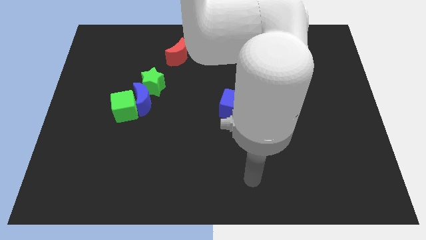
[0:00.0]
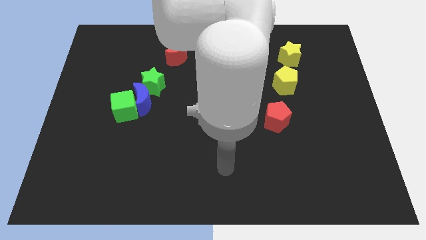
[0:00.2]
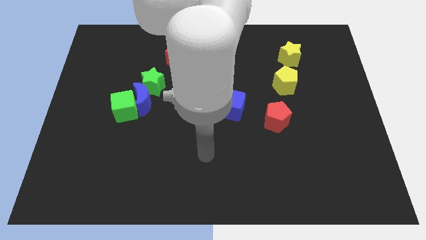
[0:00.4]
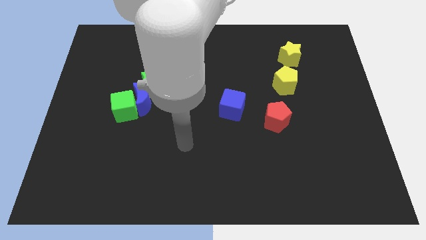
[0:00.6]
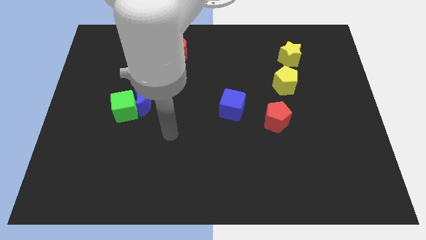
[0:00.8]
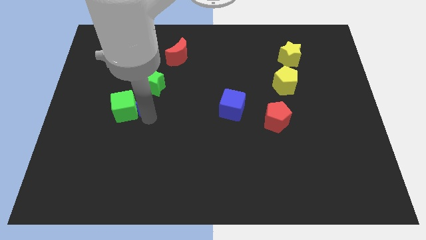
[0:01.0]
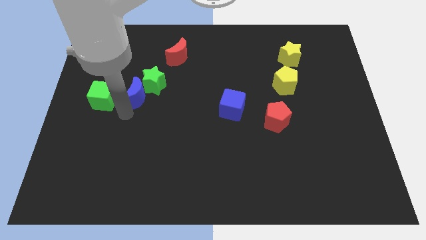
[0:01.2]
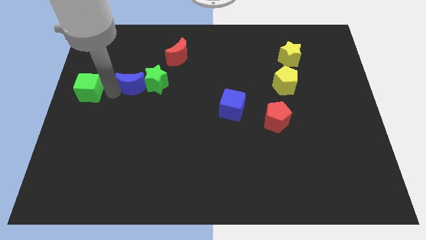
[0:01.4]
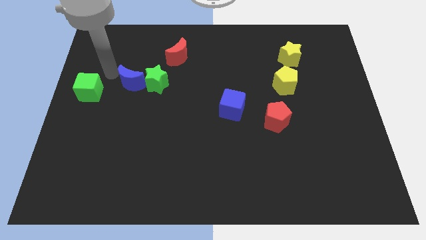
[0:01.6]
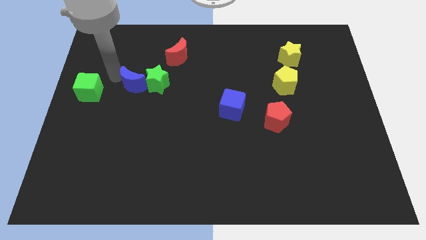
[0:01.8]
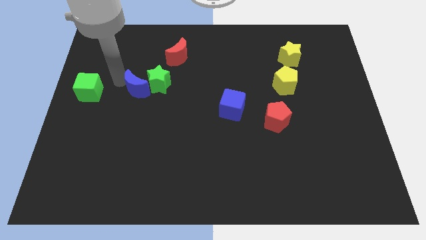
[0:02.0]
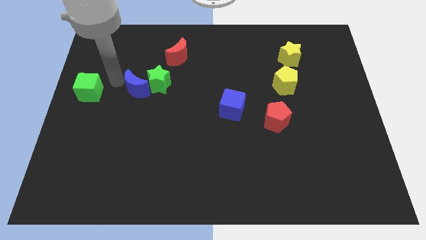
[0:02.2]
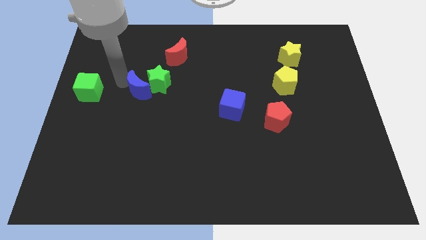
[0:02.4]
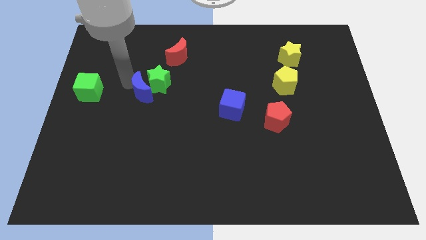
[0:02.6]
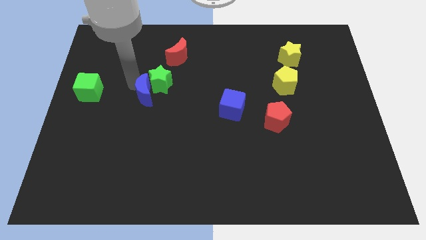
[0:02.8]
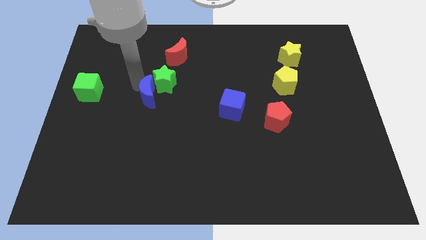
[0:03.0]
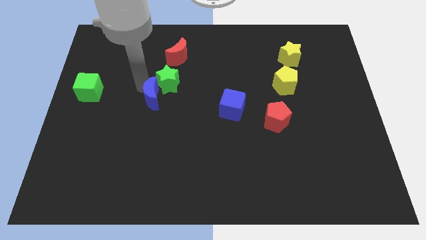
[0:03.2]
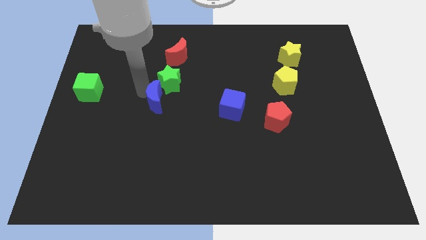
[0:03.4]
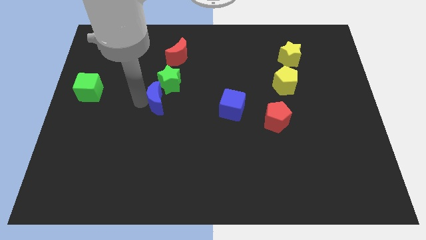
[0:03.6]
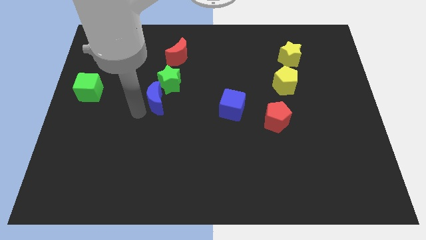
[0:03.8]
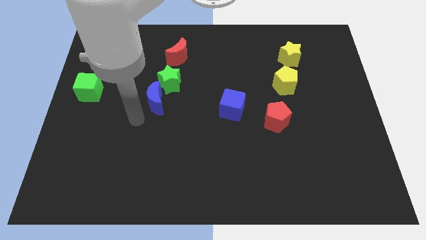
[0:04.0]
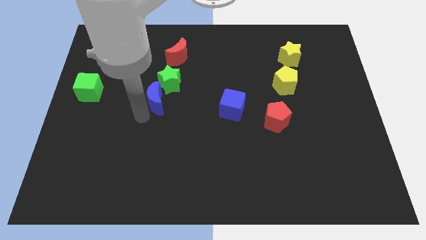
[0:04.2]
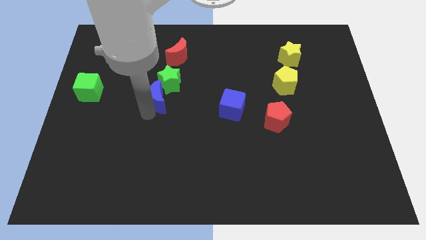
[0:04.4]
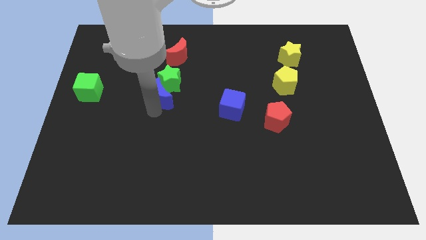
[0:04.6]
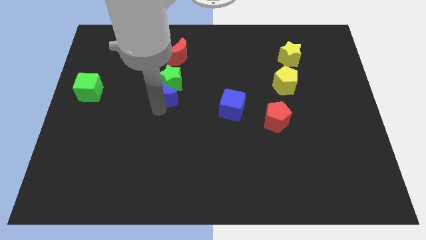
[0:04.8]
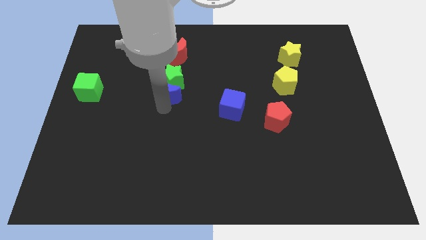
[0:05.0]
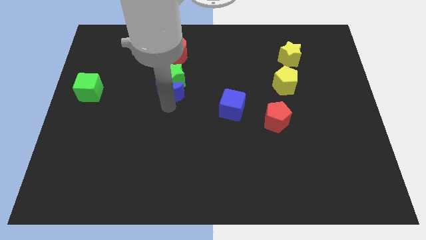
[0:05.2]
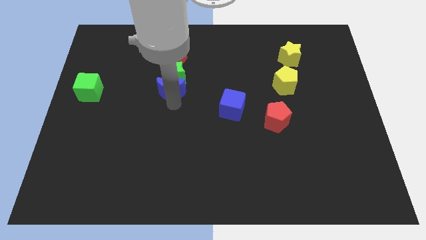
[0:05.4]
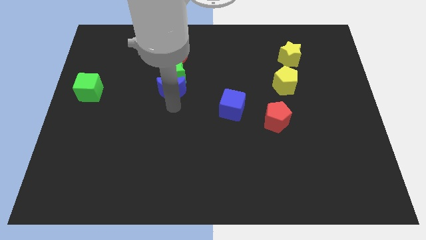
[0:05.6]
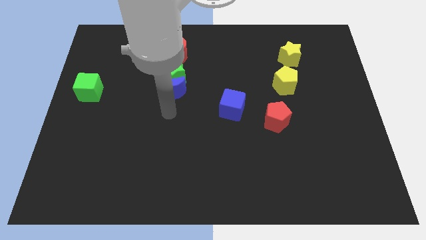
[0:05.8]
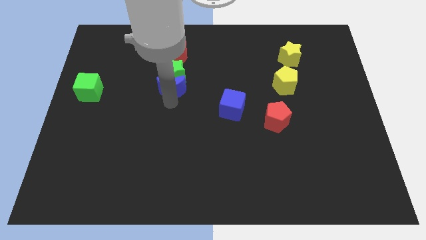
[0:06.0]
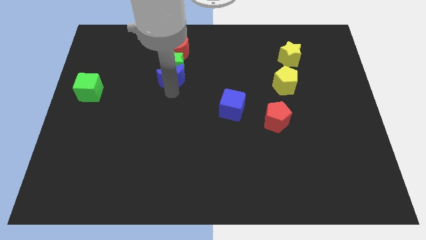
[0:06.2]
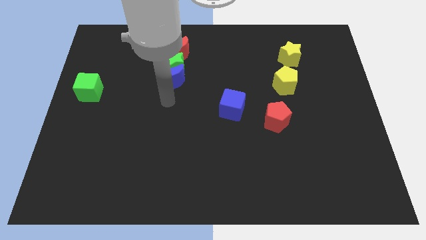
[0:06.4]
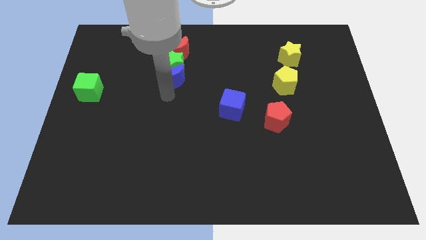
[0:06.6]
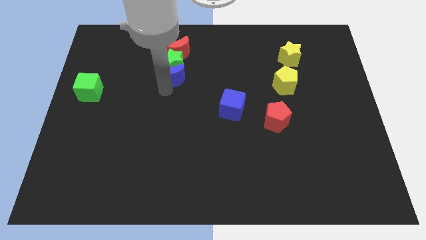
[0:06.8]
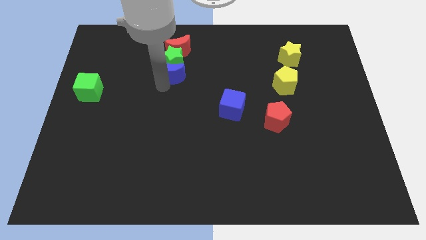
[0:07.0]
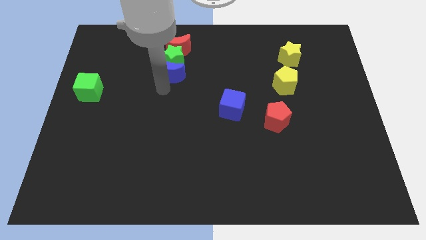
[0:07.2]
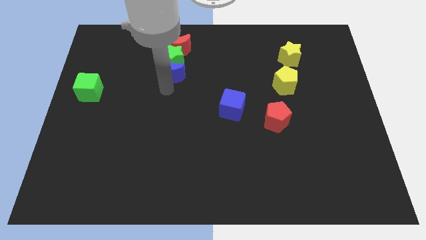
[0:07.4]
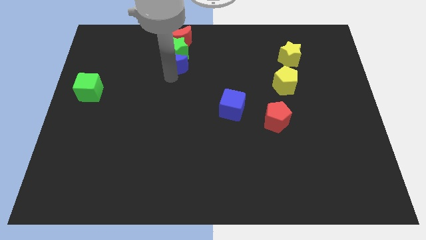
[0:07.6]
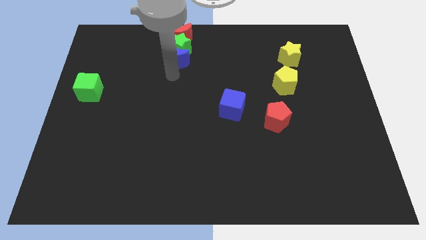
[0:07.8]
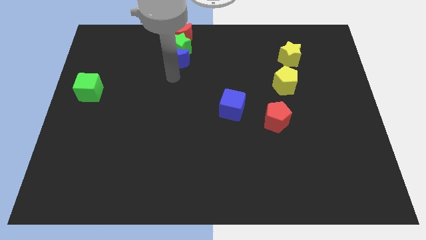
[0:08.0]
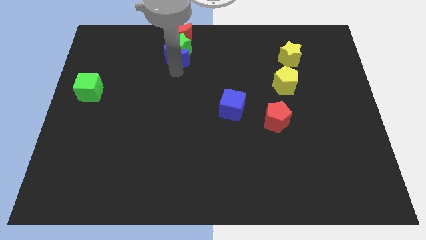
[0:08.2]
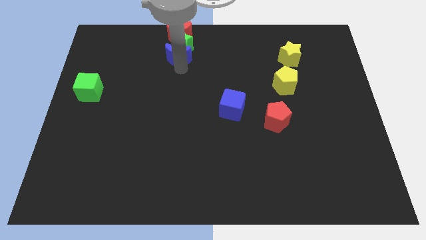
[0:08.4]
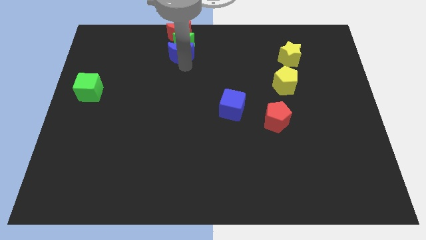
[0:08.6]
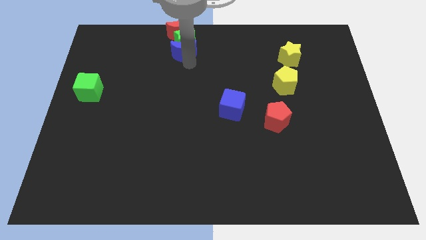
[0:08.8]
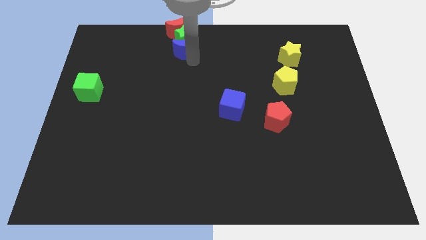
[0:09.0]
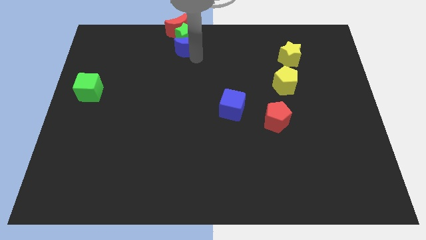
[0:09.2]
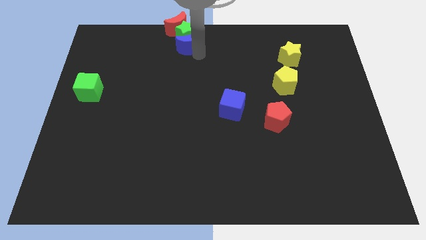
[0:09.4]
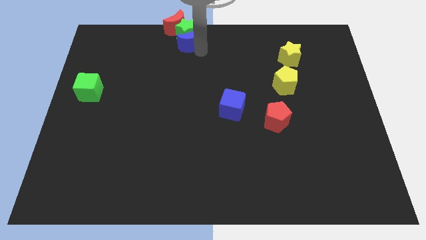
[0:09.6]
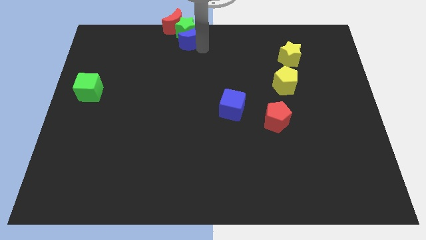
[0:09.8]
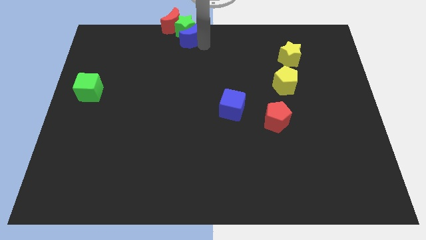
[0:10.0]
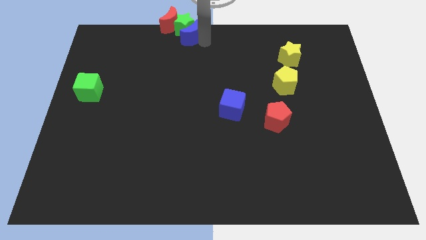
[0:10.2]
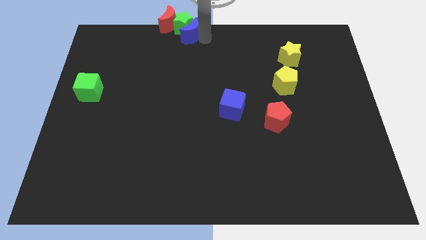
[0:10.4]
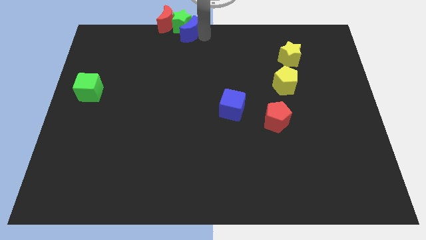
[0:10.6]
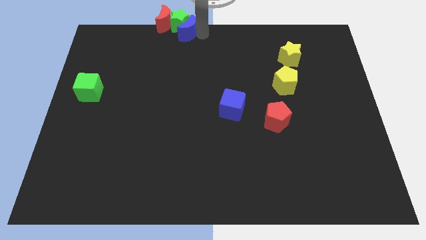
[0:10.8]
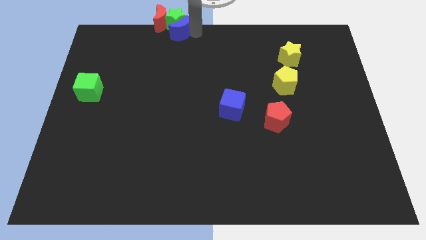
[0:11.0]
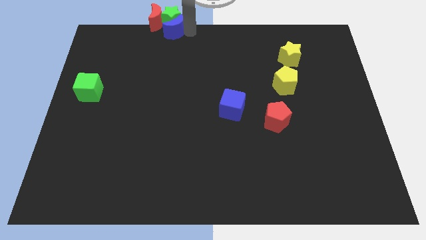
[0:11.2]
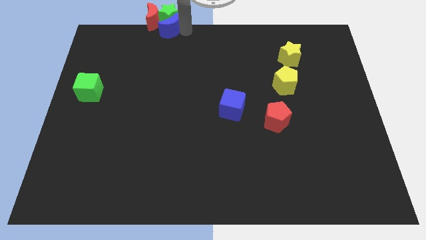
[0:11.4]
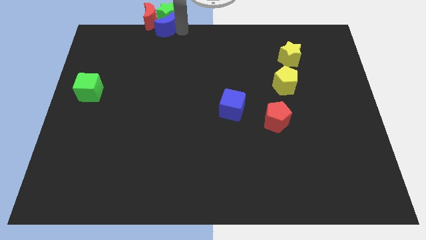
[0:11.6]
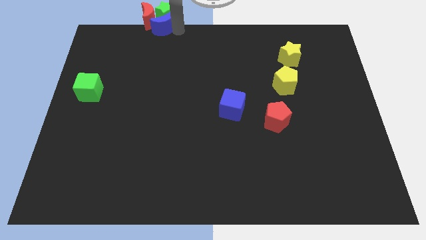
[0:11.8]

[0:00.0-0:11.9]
push the blue moon to the red moon
